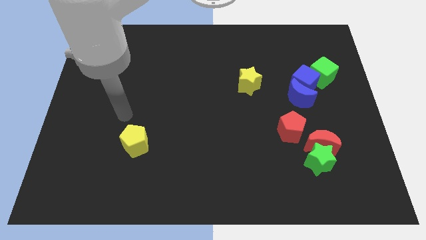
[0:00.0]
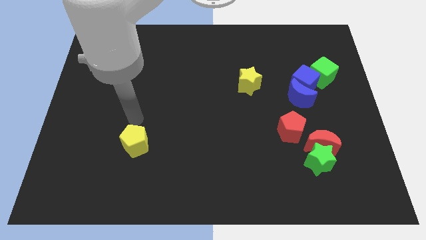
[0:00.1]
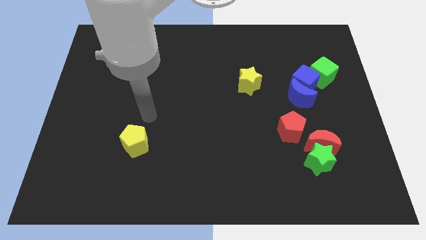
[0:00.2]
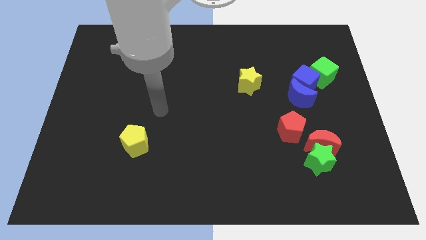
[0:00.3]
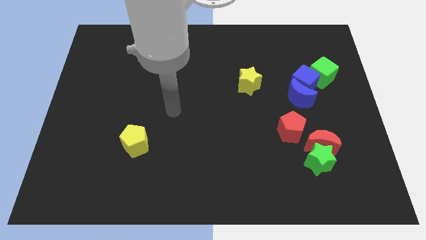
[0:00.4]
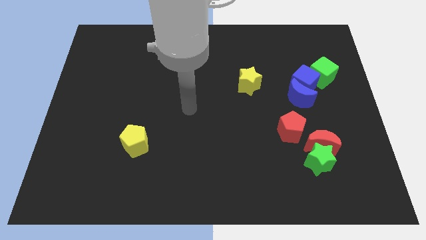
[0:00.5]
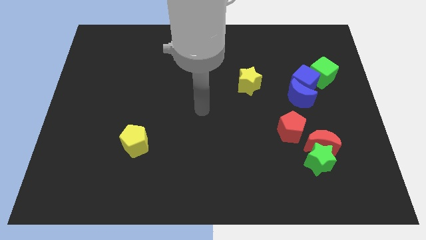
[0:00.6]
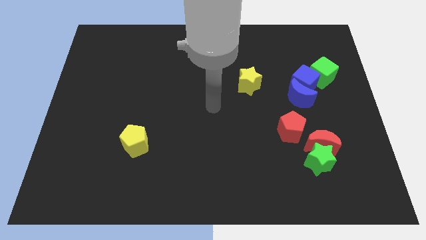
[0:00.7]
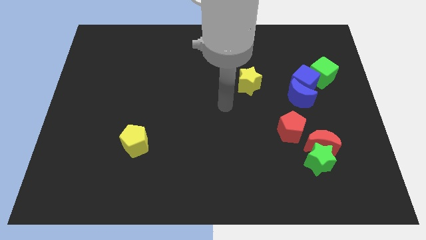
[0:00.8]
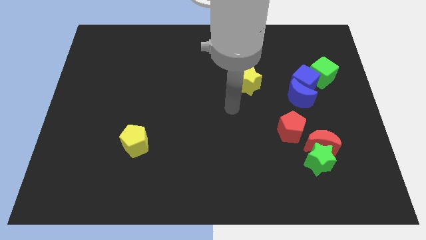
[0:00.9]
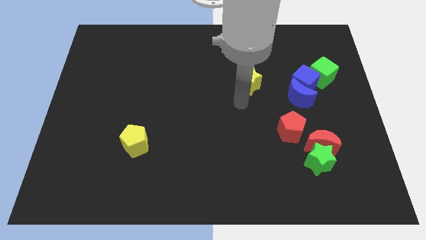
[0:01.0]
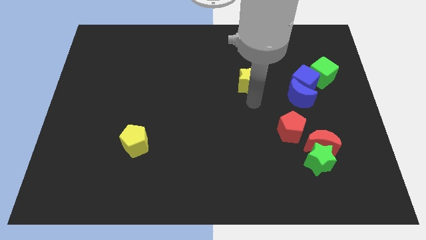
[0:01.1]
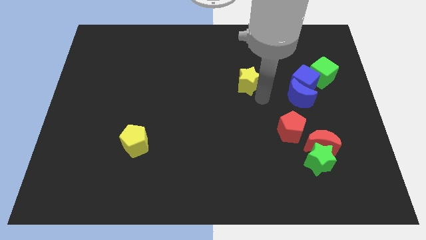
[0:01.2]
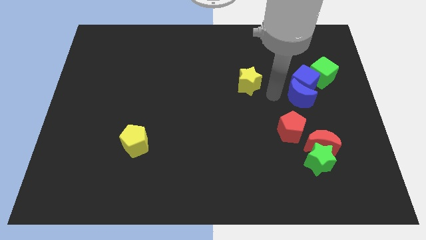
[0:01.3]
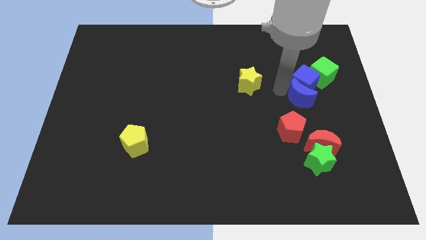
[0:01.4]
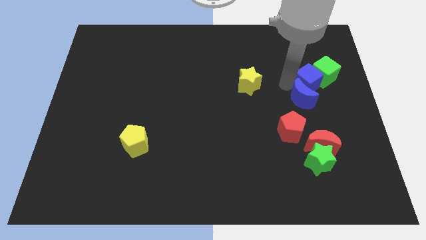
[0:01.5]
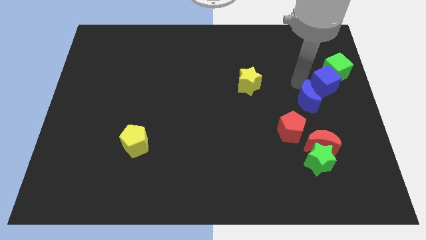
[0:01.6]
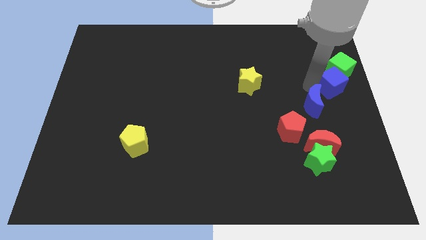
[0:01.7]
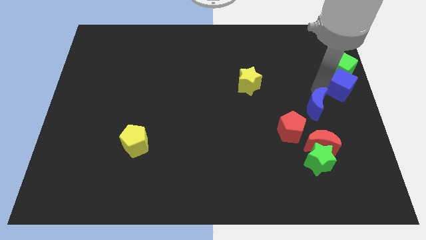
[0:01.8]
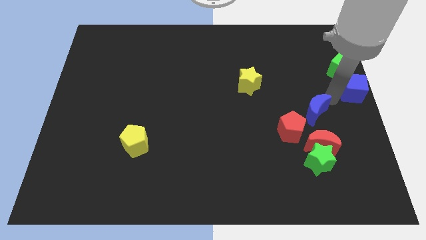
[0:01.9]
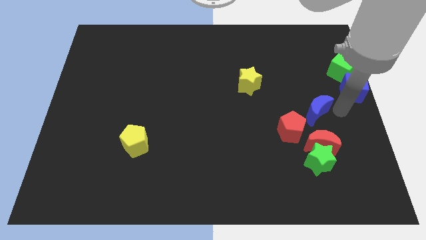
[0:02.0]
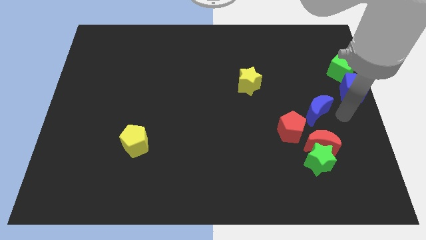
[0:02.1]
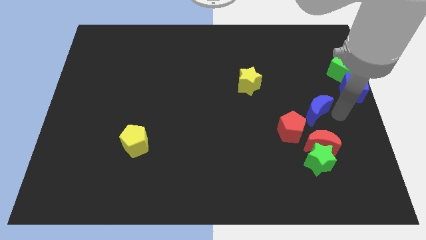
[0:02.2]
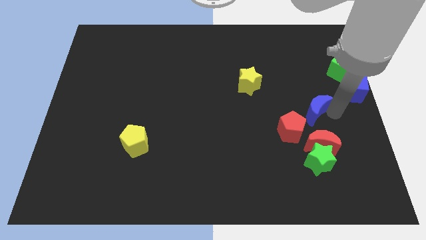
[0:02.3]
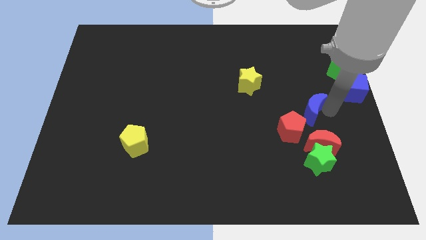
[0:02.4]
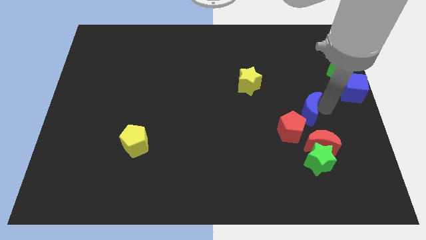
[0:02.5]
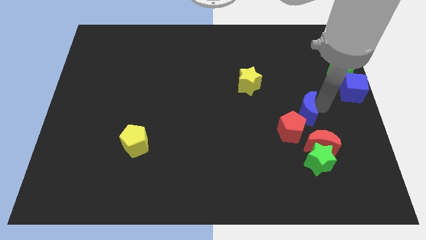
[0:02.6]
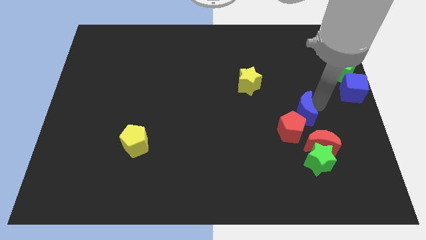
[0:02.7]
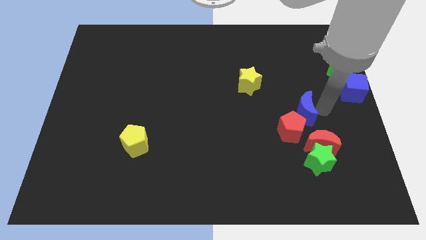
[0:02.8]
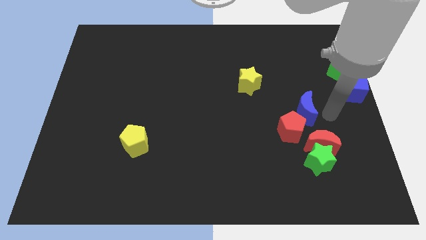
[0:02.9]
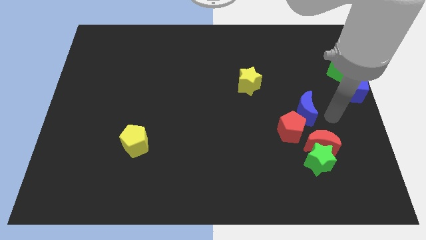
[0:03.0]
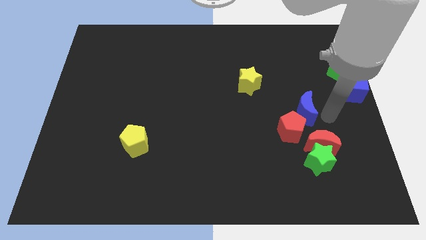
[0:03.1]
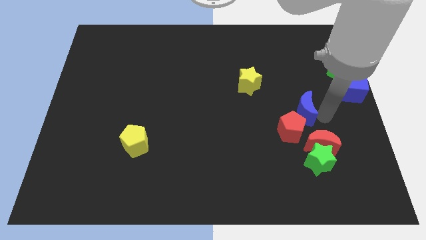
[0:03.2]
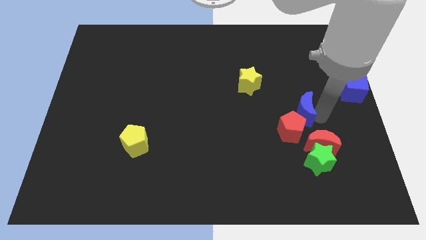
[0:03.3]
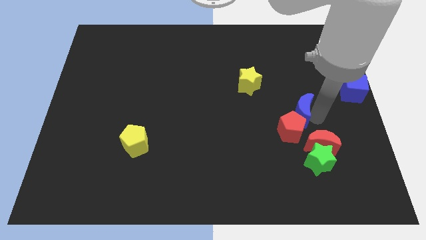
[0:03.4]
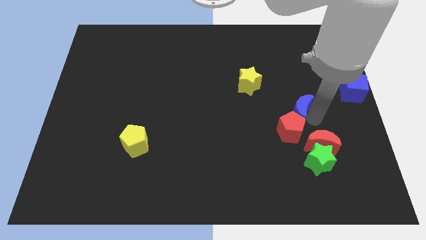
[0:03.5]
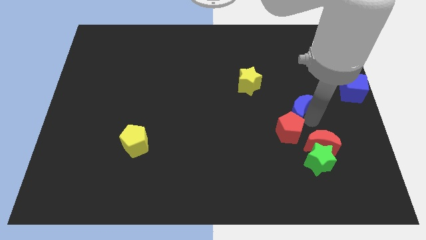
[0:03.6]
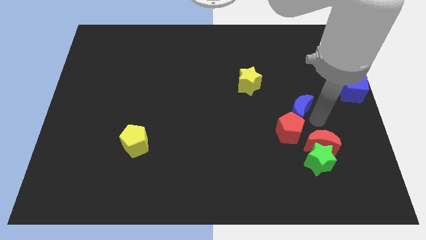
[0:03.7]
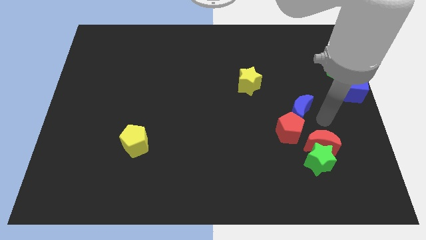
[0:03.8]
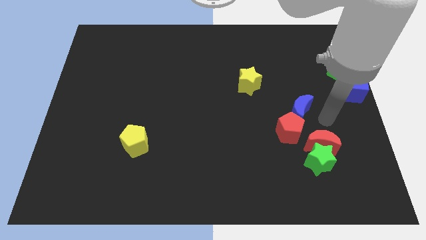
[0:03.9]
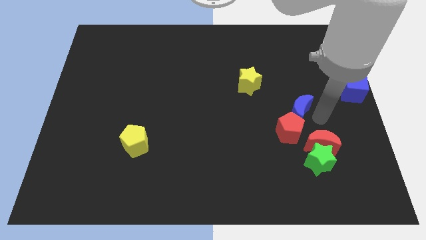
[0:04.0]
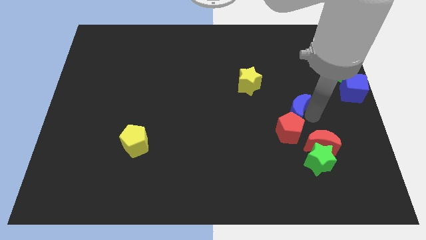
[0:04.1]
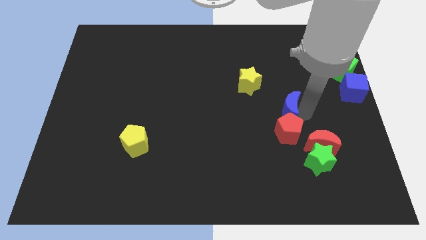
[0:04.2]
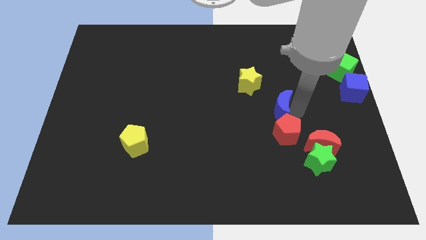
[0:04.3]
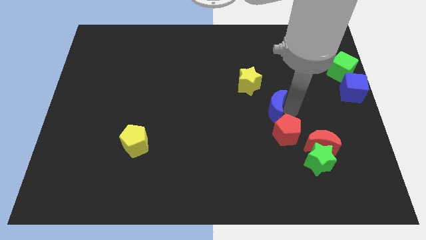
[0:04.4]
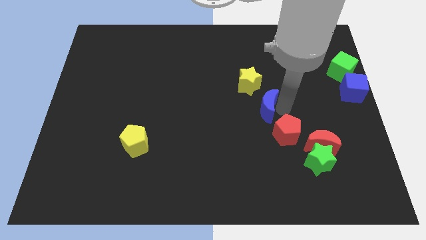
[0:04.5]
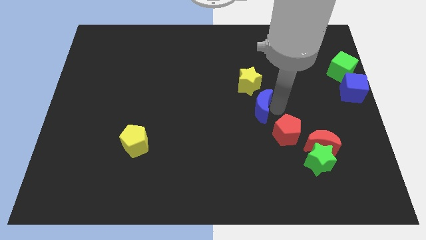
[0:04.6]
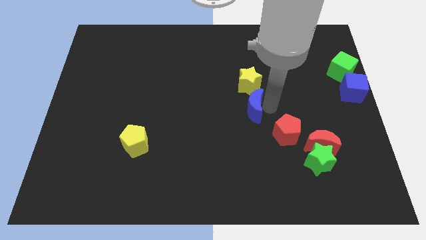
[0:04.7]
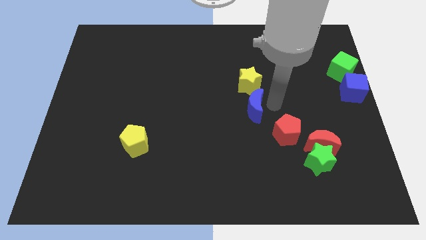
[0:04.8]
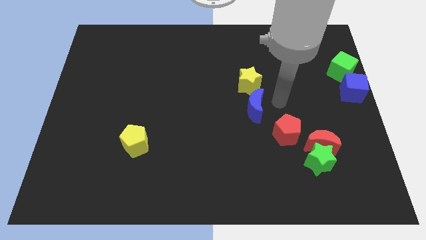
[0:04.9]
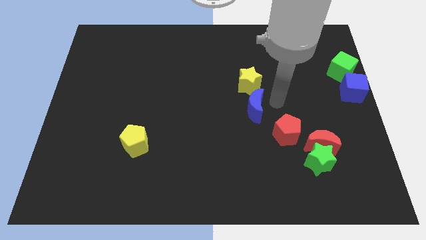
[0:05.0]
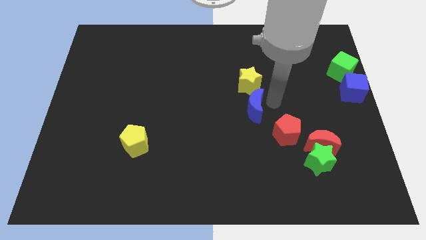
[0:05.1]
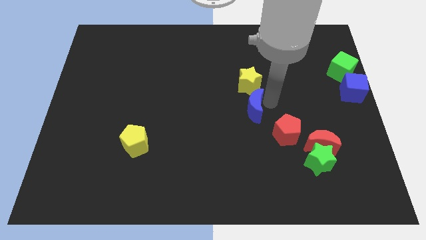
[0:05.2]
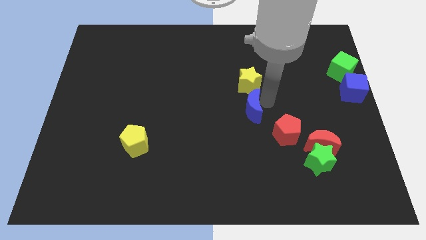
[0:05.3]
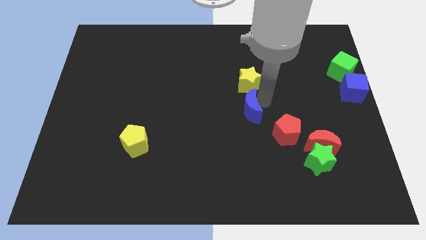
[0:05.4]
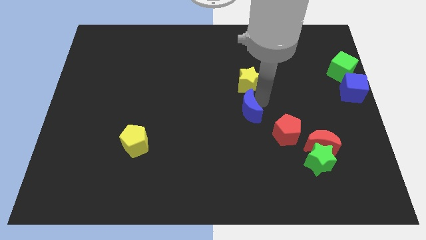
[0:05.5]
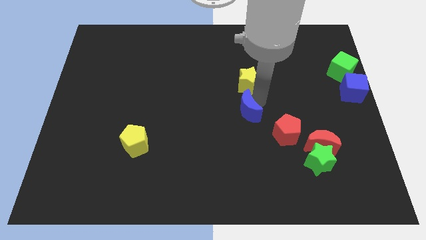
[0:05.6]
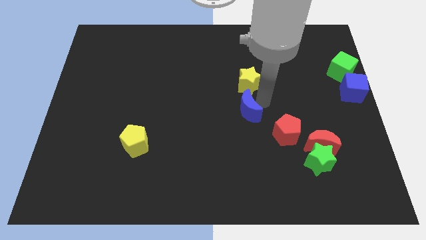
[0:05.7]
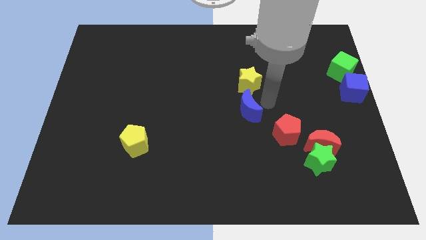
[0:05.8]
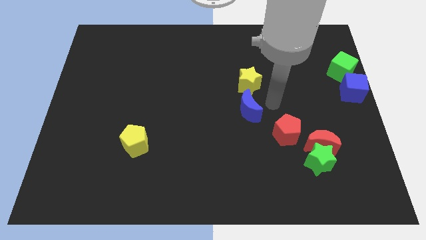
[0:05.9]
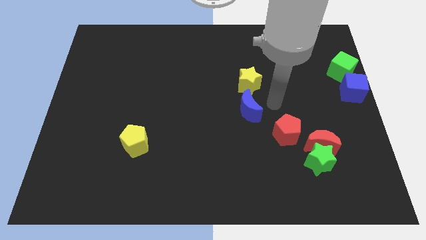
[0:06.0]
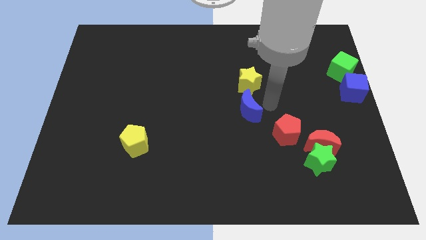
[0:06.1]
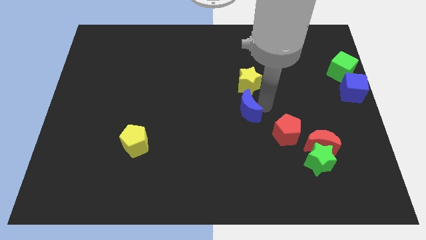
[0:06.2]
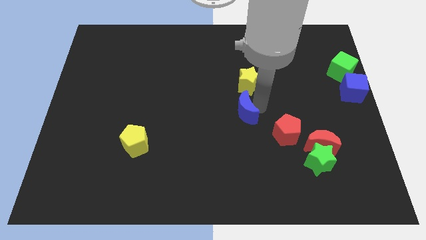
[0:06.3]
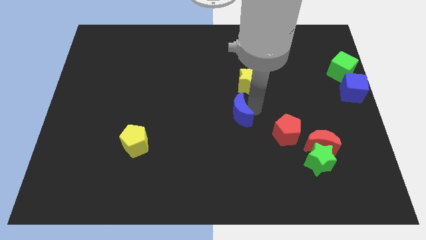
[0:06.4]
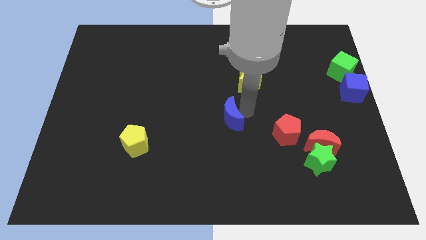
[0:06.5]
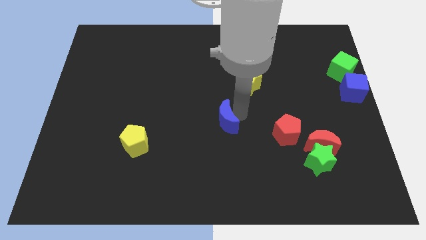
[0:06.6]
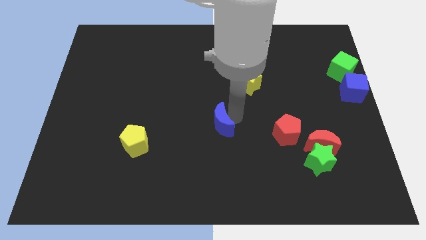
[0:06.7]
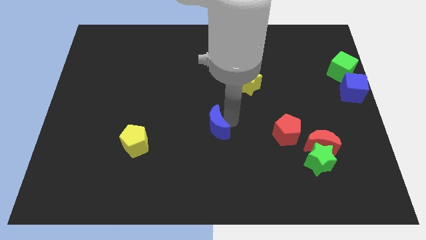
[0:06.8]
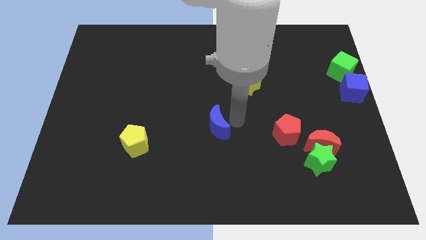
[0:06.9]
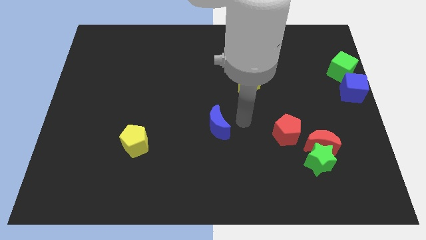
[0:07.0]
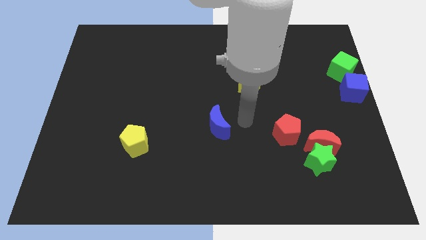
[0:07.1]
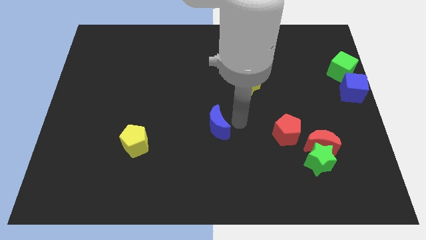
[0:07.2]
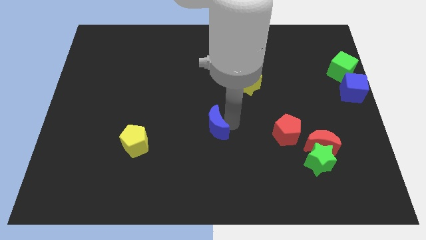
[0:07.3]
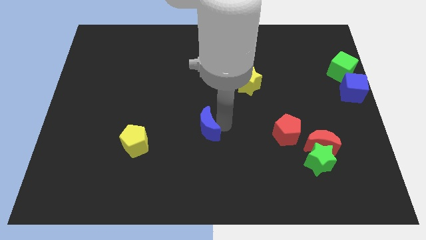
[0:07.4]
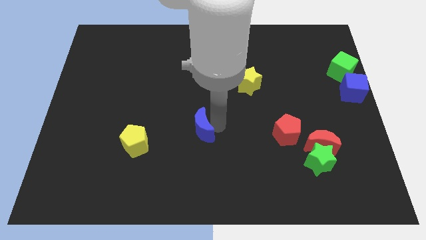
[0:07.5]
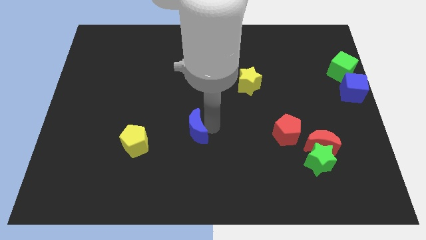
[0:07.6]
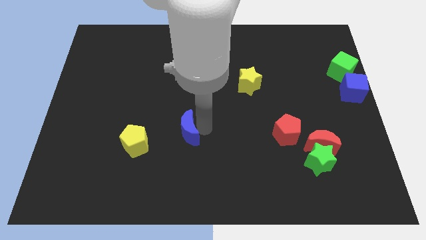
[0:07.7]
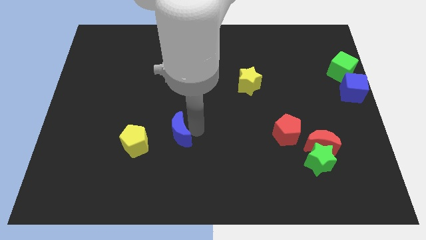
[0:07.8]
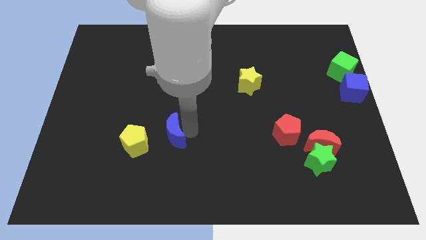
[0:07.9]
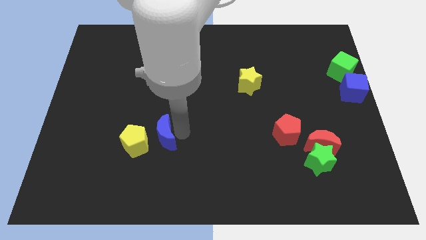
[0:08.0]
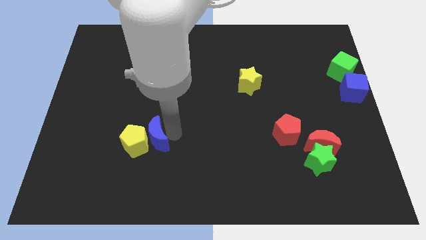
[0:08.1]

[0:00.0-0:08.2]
push the blue moon towards the yellow pentagon
